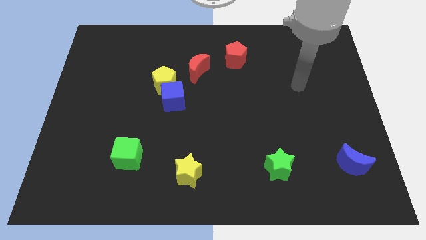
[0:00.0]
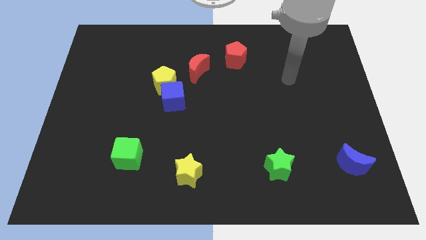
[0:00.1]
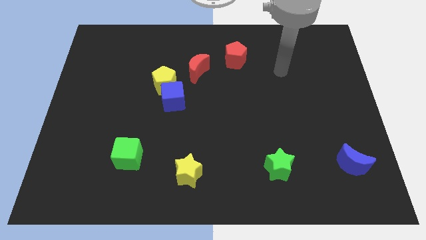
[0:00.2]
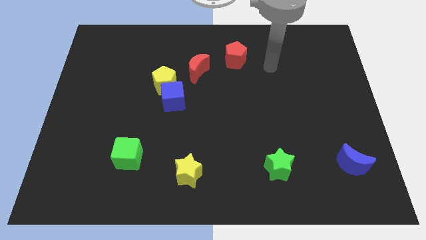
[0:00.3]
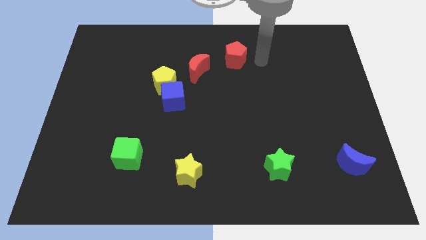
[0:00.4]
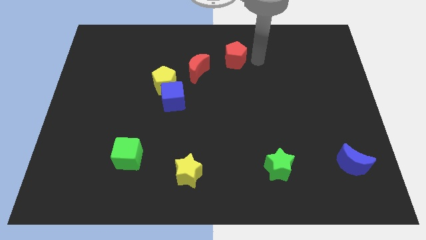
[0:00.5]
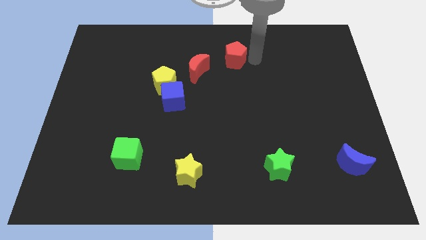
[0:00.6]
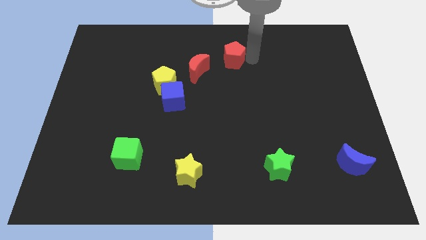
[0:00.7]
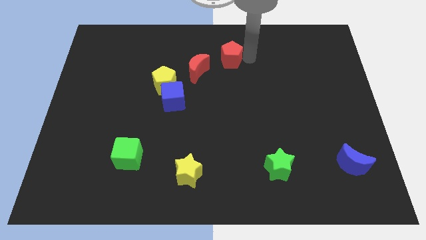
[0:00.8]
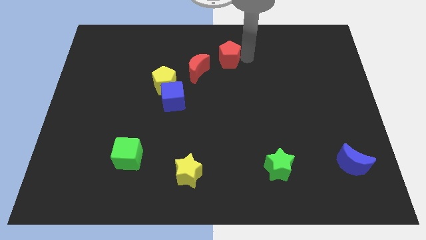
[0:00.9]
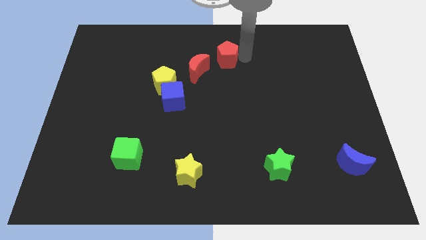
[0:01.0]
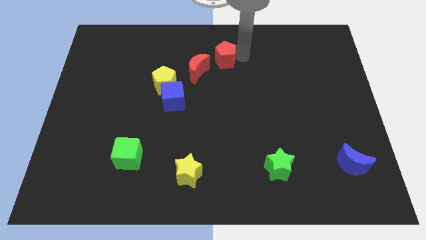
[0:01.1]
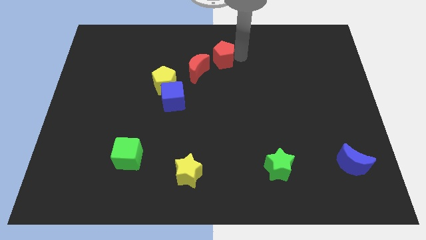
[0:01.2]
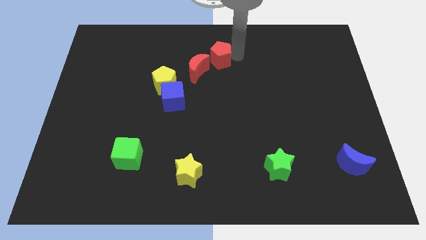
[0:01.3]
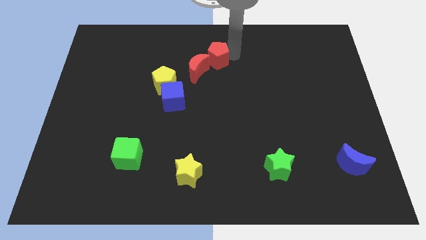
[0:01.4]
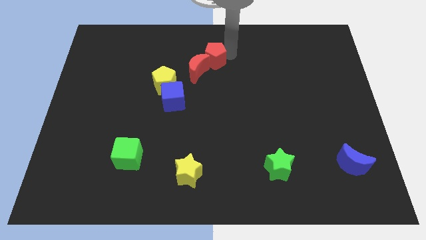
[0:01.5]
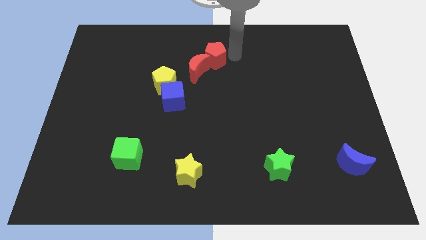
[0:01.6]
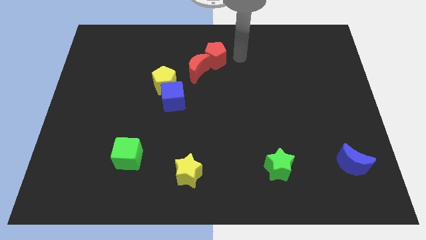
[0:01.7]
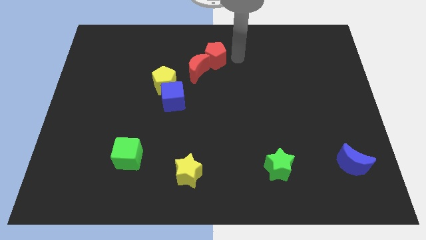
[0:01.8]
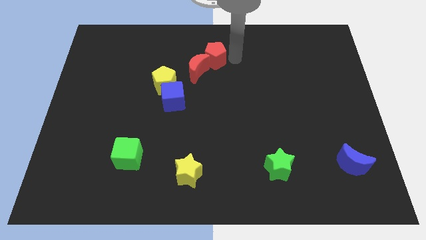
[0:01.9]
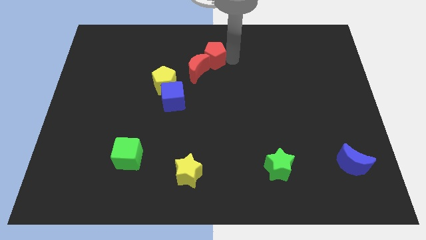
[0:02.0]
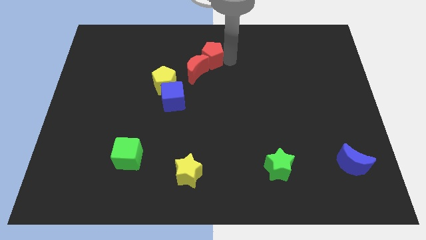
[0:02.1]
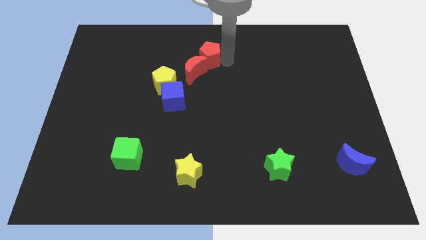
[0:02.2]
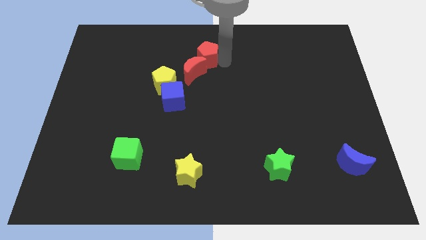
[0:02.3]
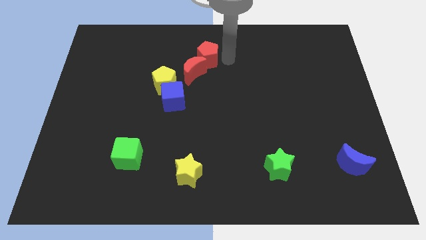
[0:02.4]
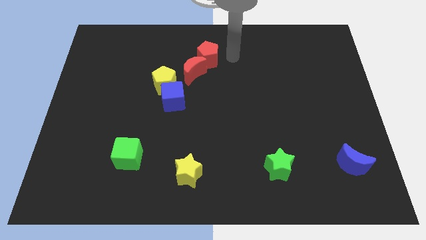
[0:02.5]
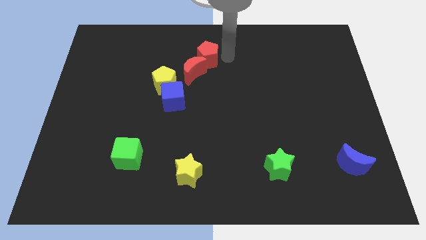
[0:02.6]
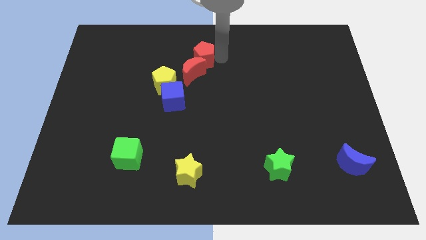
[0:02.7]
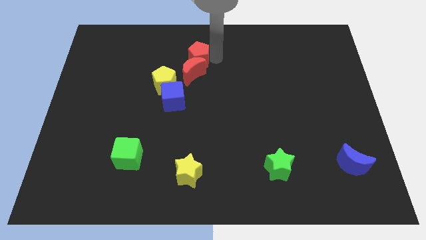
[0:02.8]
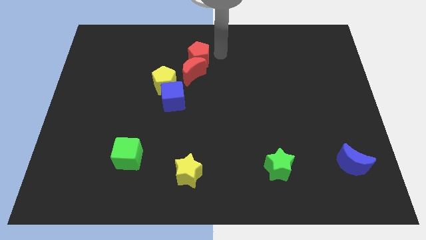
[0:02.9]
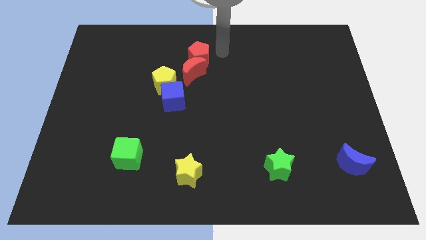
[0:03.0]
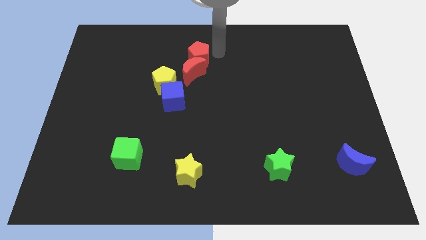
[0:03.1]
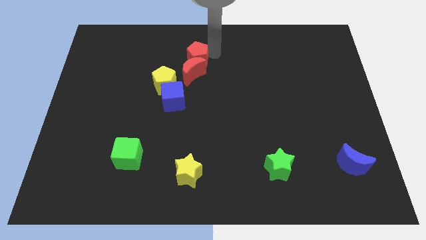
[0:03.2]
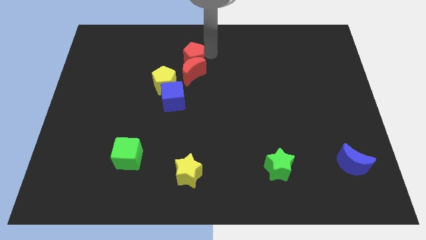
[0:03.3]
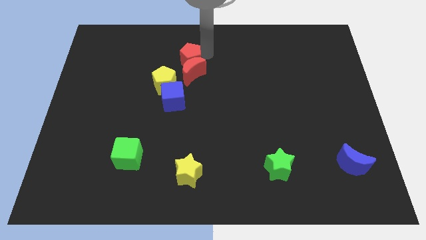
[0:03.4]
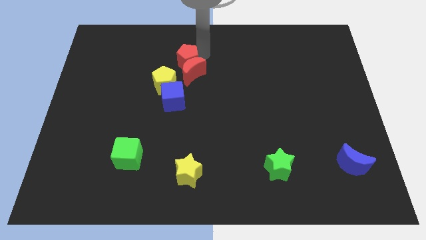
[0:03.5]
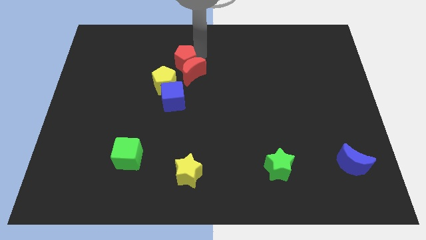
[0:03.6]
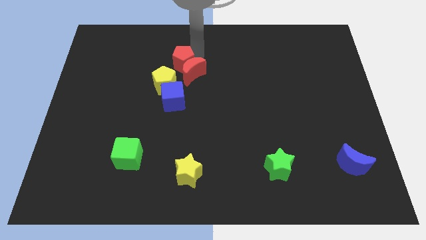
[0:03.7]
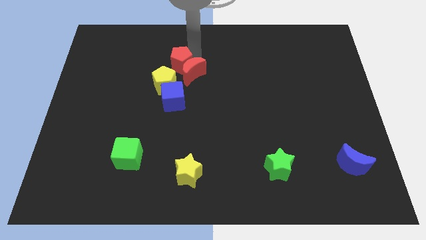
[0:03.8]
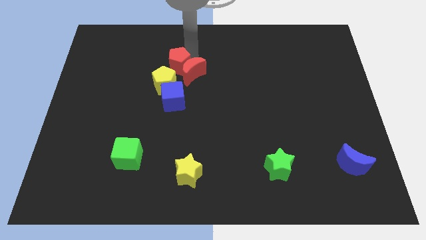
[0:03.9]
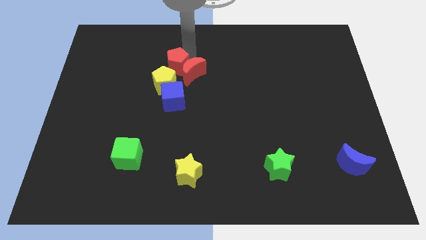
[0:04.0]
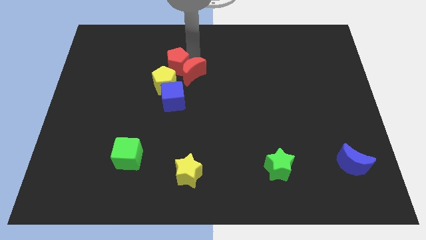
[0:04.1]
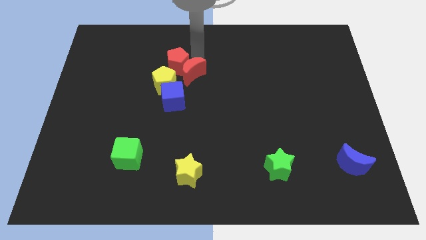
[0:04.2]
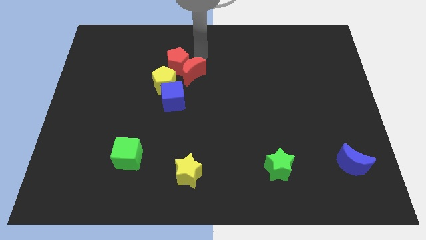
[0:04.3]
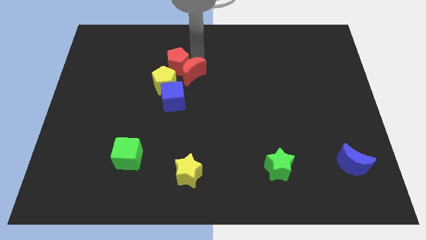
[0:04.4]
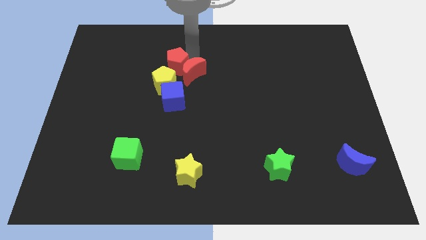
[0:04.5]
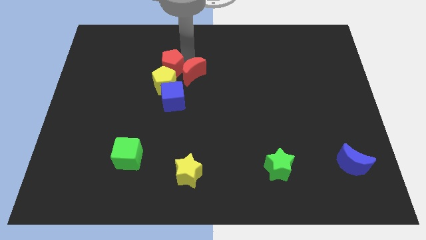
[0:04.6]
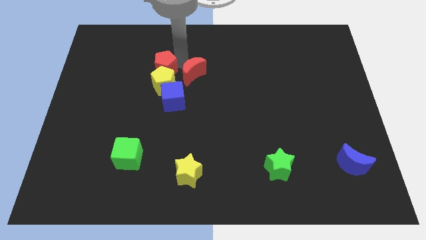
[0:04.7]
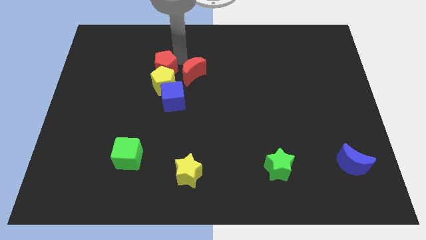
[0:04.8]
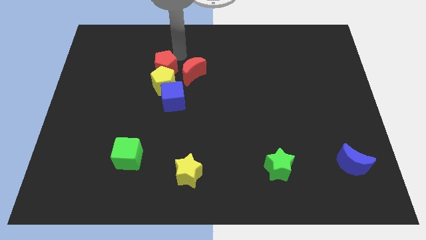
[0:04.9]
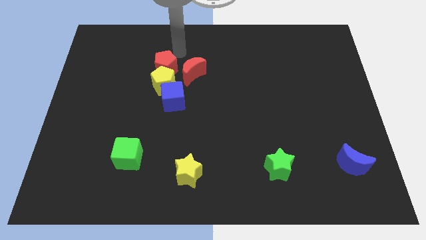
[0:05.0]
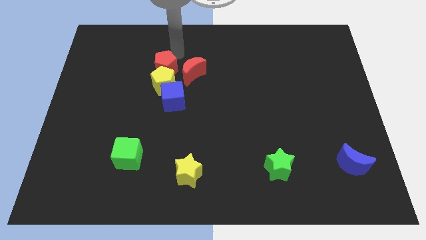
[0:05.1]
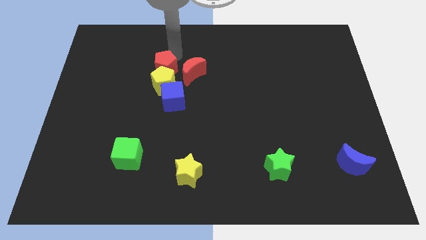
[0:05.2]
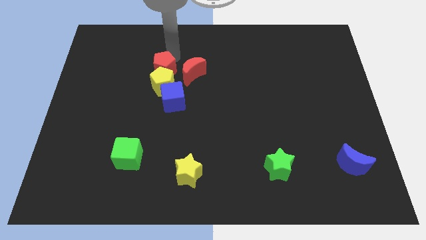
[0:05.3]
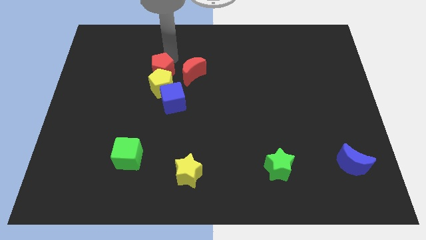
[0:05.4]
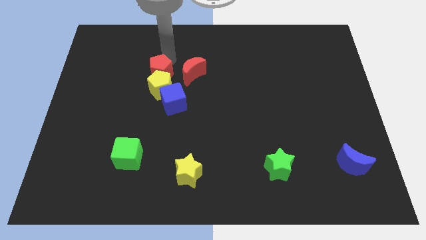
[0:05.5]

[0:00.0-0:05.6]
slide the red pentagon diagonally up and to the left of the blue cube

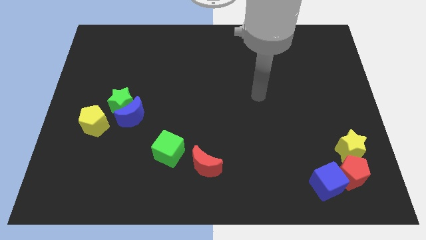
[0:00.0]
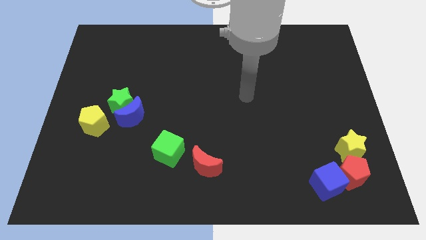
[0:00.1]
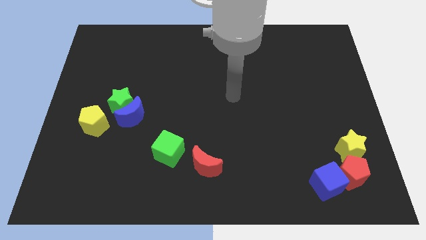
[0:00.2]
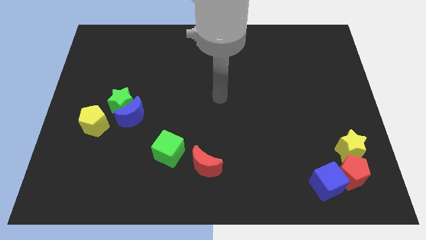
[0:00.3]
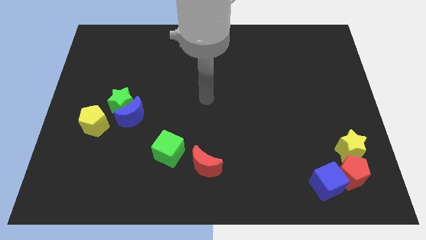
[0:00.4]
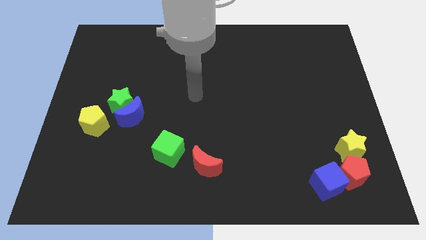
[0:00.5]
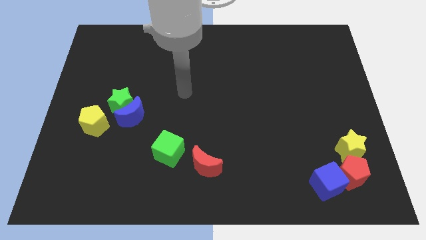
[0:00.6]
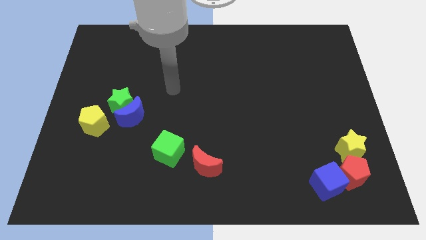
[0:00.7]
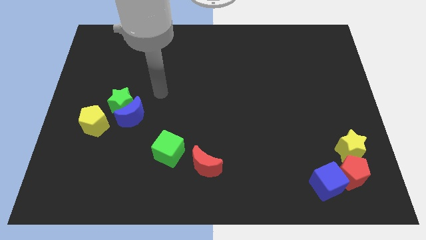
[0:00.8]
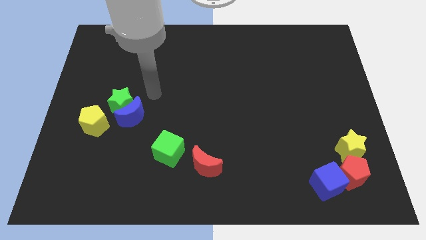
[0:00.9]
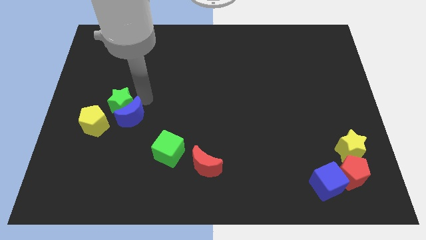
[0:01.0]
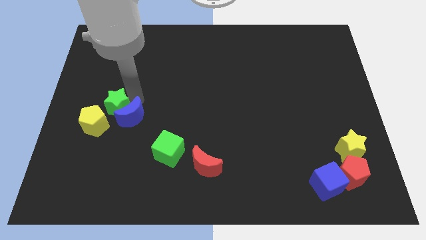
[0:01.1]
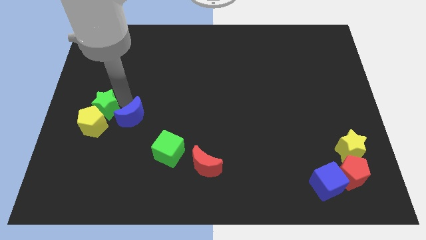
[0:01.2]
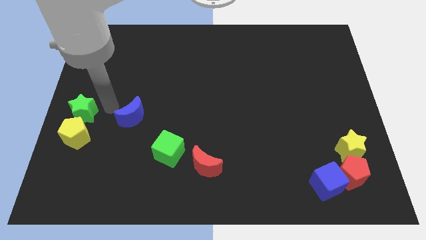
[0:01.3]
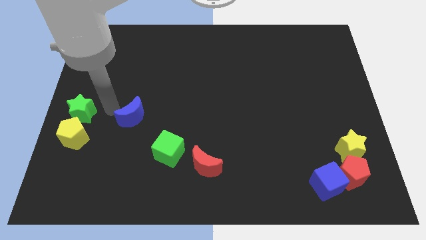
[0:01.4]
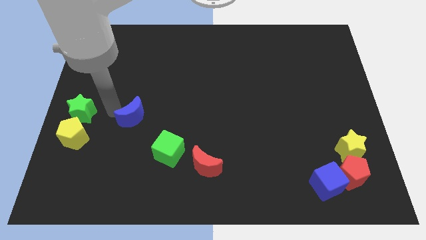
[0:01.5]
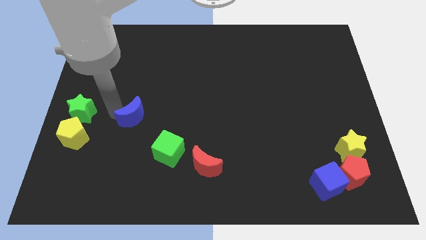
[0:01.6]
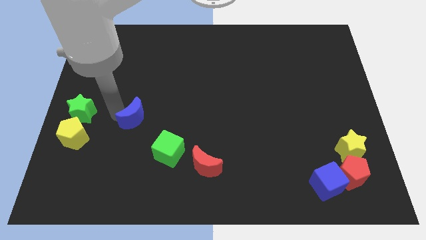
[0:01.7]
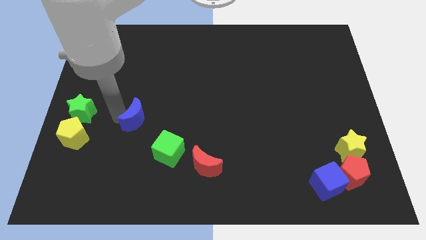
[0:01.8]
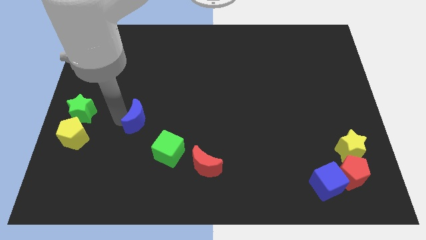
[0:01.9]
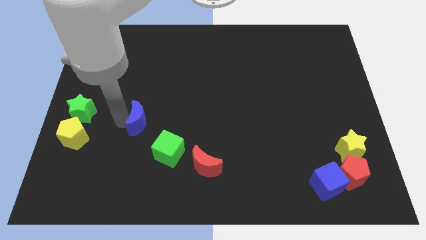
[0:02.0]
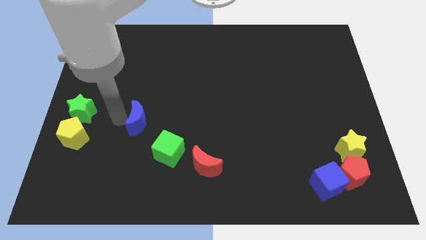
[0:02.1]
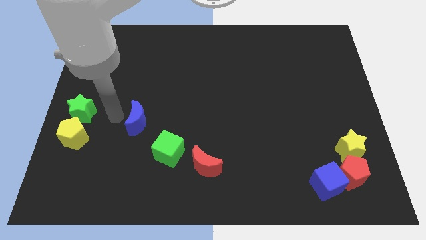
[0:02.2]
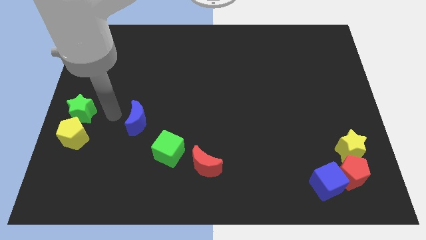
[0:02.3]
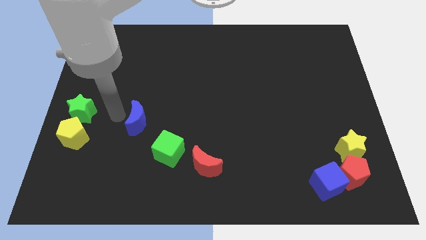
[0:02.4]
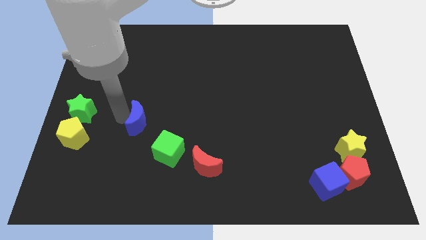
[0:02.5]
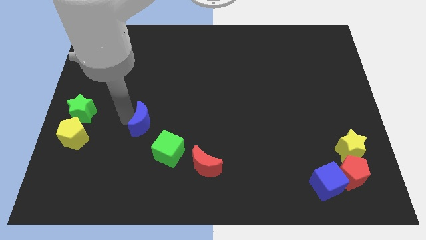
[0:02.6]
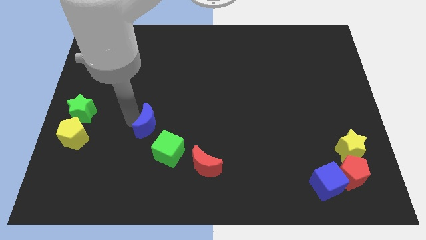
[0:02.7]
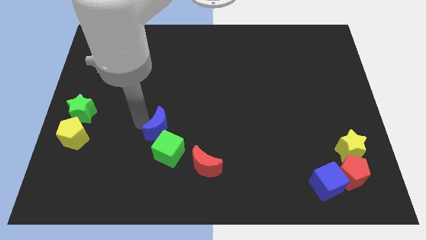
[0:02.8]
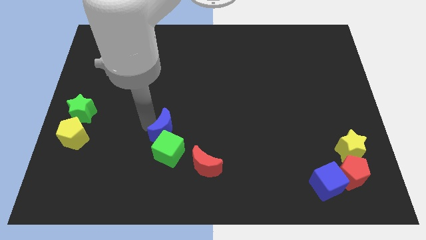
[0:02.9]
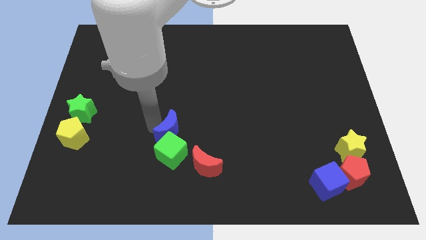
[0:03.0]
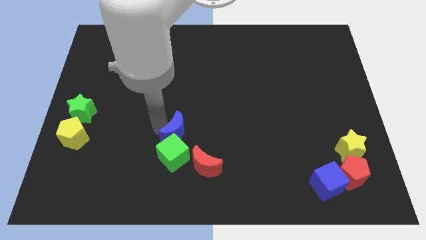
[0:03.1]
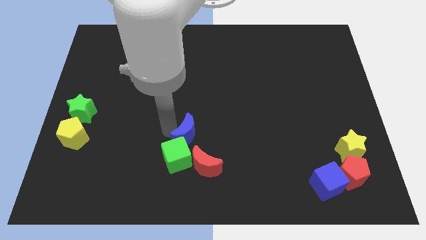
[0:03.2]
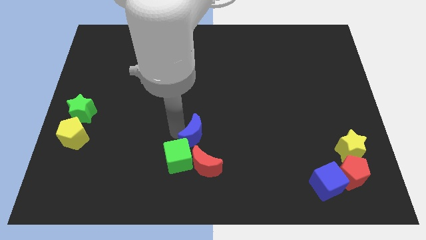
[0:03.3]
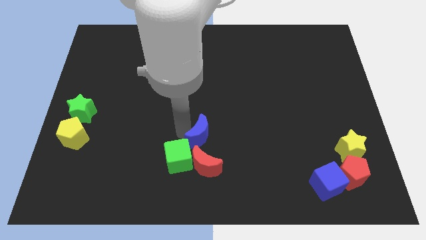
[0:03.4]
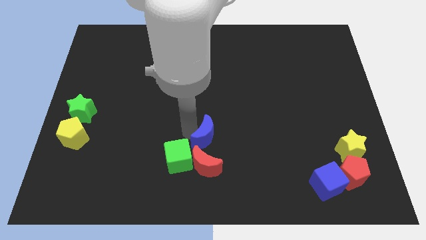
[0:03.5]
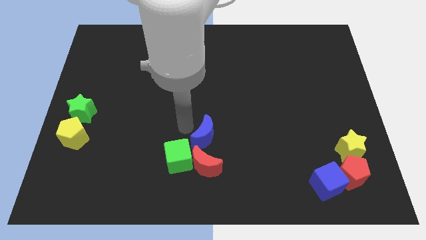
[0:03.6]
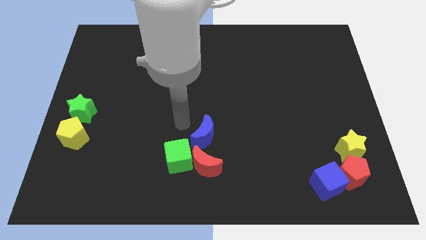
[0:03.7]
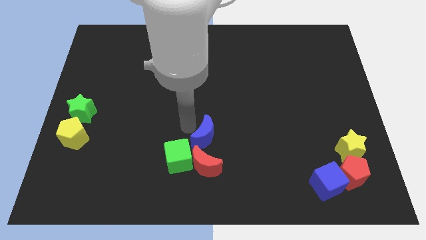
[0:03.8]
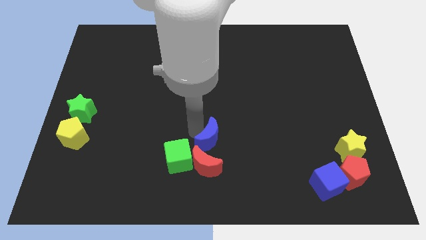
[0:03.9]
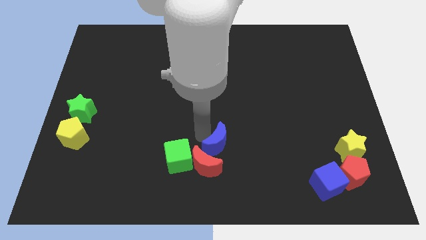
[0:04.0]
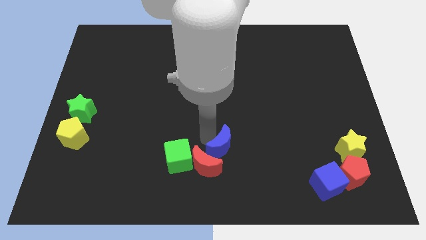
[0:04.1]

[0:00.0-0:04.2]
move the blue moon to the right side of the red moon
